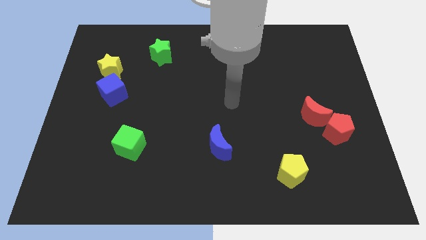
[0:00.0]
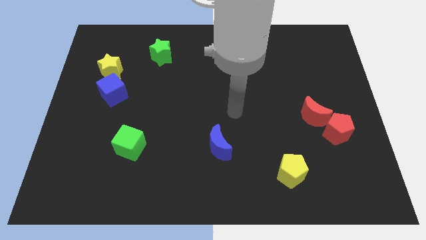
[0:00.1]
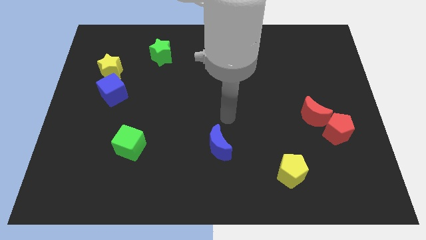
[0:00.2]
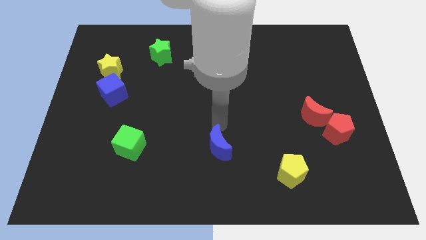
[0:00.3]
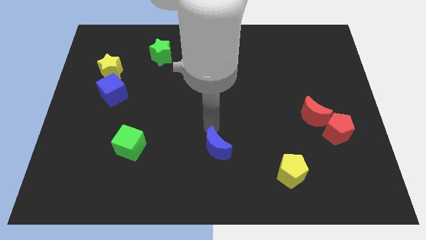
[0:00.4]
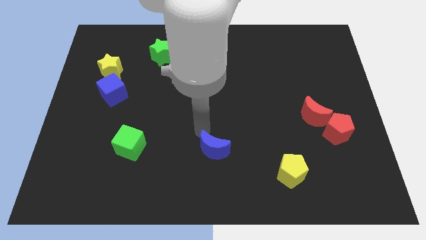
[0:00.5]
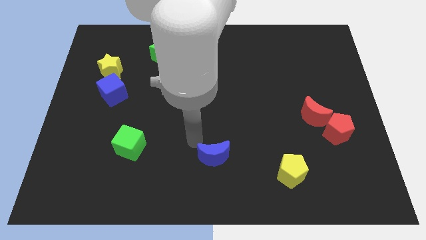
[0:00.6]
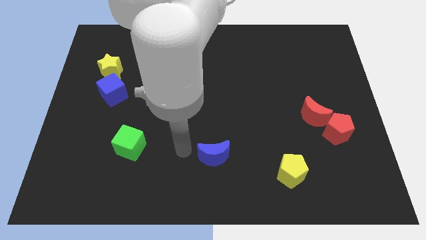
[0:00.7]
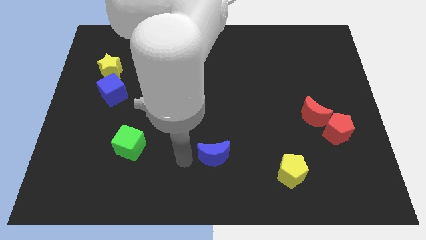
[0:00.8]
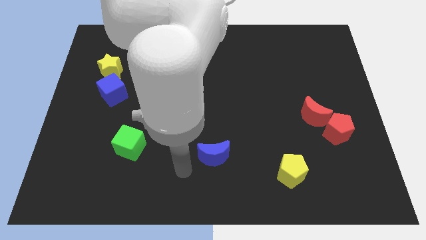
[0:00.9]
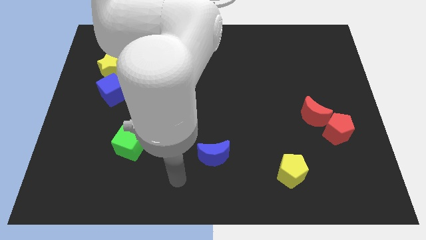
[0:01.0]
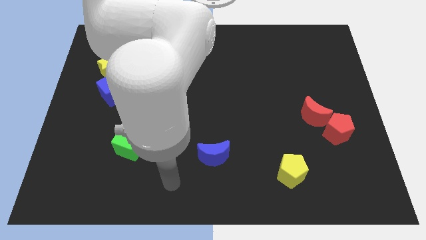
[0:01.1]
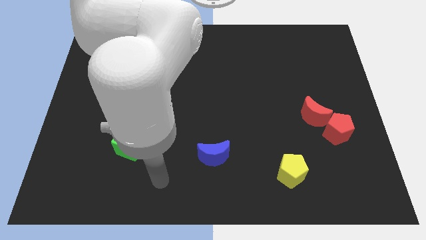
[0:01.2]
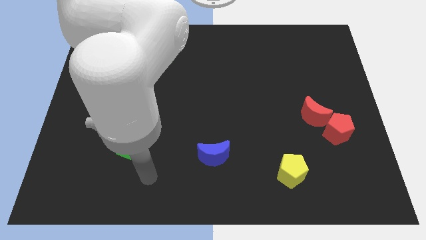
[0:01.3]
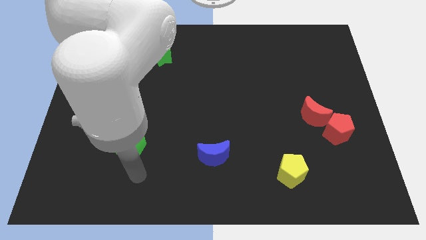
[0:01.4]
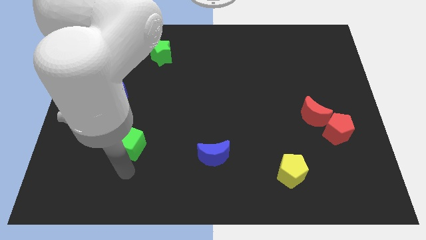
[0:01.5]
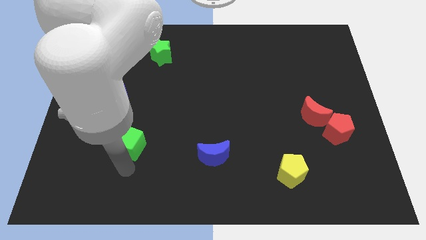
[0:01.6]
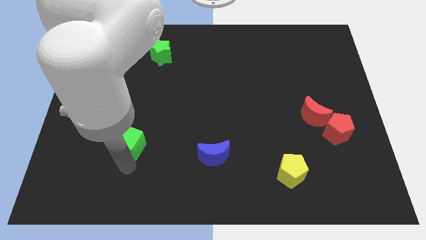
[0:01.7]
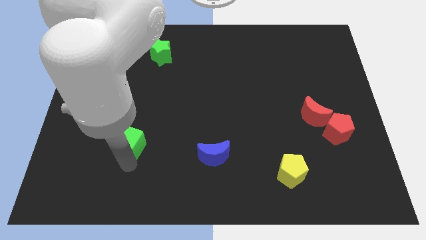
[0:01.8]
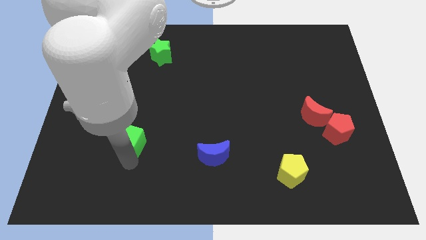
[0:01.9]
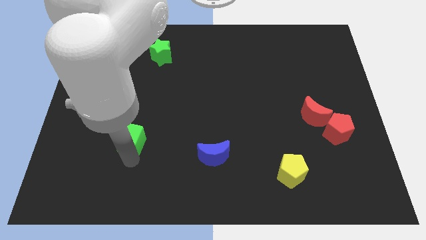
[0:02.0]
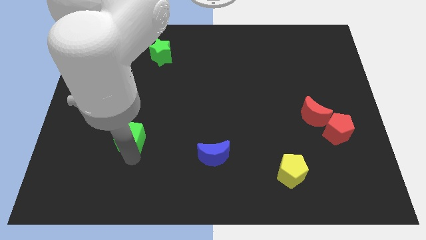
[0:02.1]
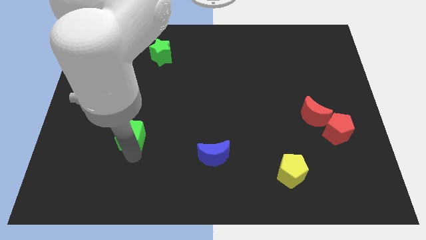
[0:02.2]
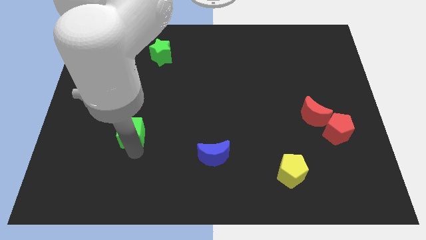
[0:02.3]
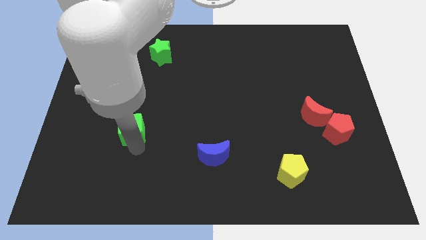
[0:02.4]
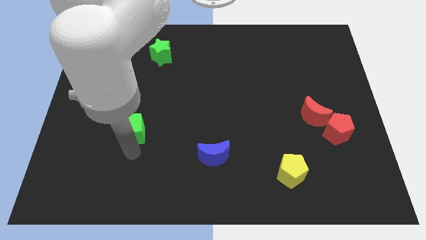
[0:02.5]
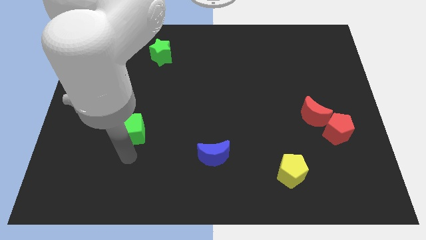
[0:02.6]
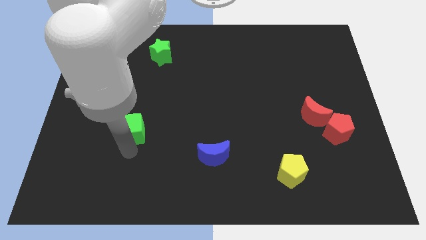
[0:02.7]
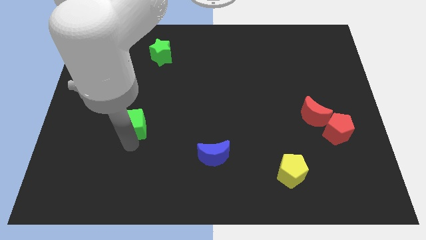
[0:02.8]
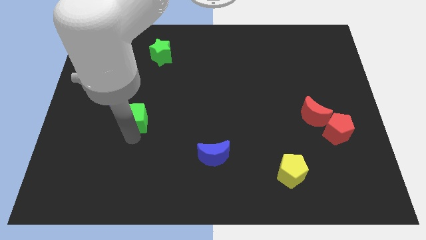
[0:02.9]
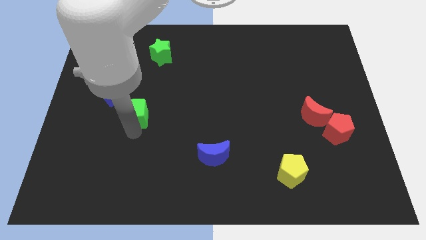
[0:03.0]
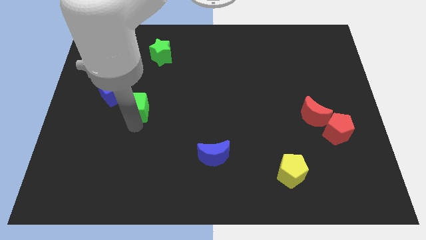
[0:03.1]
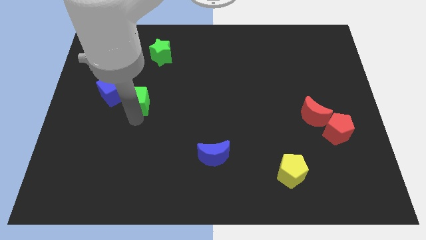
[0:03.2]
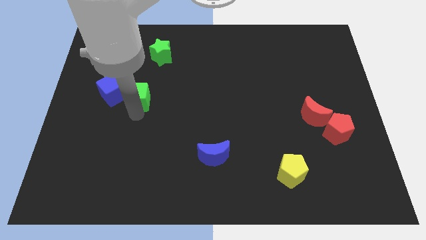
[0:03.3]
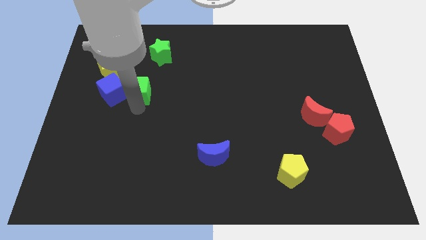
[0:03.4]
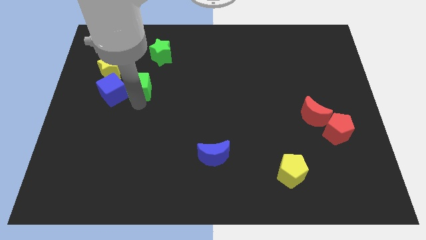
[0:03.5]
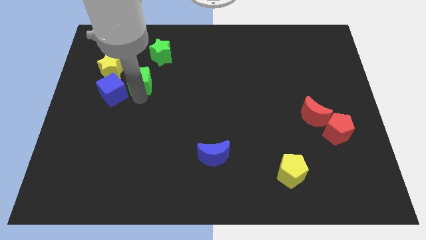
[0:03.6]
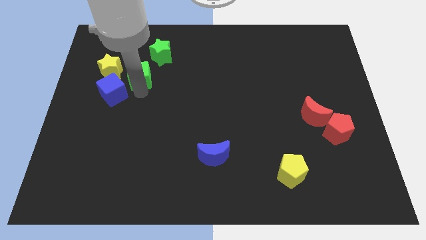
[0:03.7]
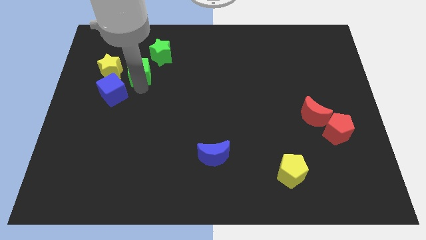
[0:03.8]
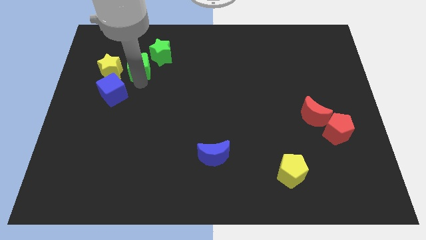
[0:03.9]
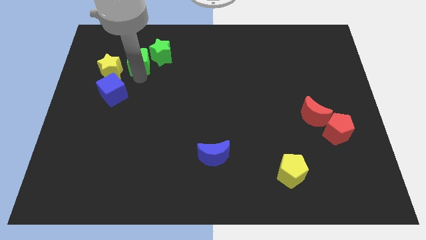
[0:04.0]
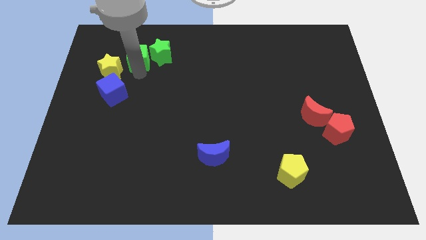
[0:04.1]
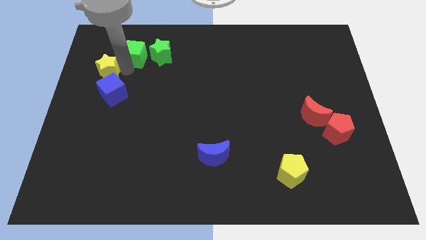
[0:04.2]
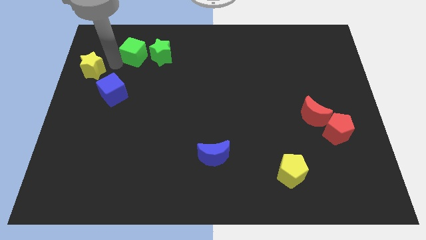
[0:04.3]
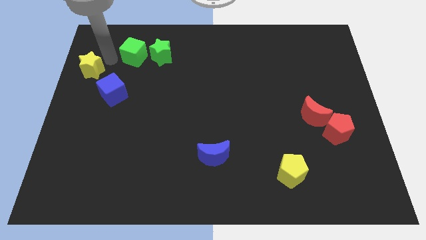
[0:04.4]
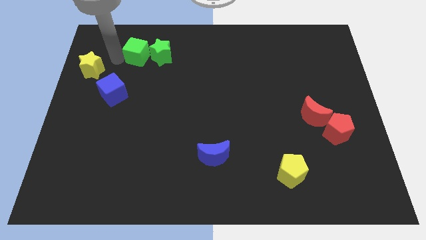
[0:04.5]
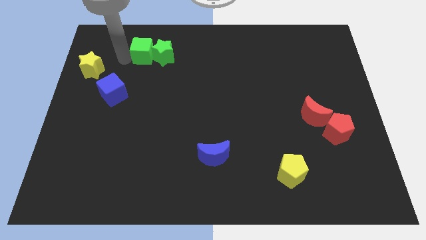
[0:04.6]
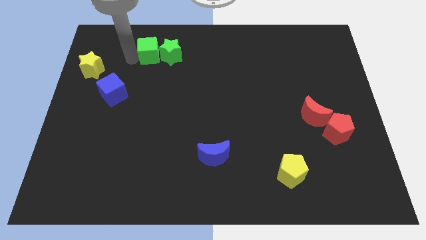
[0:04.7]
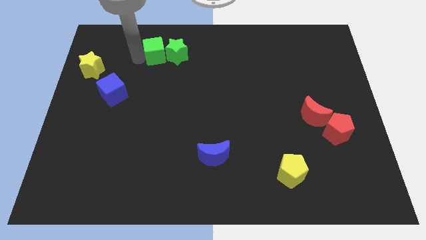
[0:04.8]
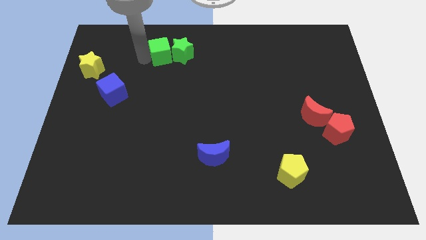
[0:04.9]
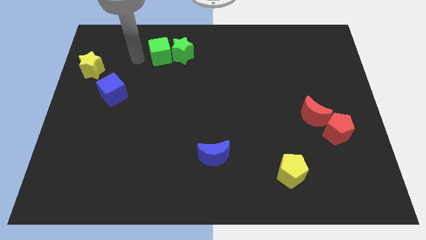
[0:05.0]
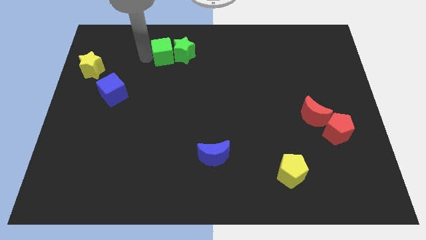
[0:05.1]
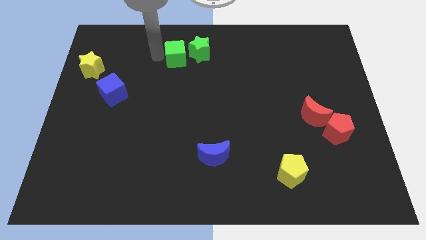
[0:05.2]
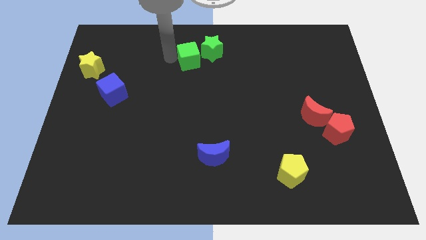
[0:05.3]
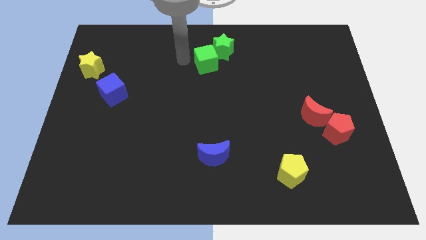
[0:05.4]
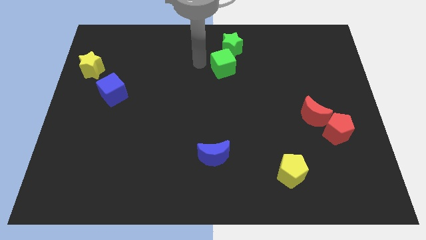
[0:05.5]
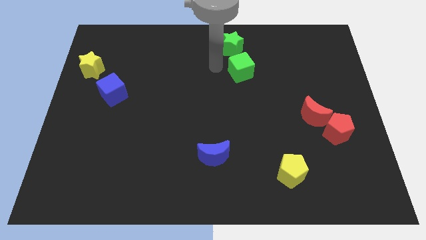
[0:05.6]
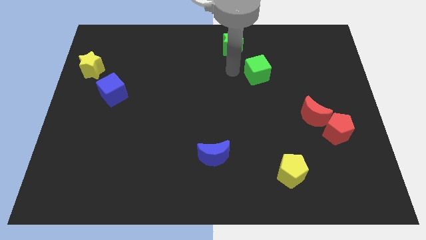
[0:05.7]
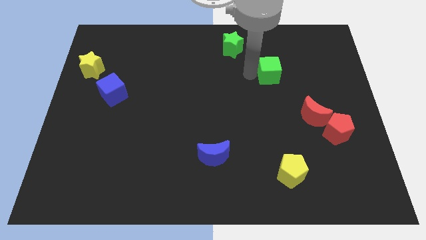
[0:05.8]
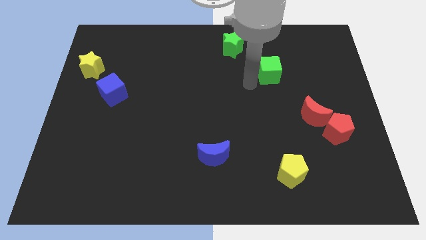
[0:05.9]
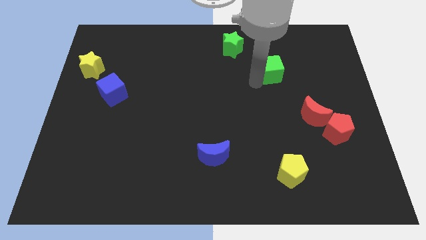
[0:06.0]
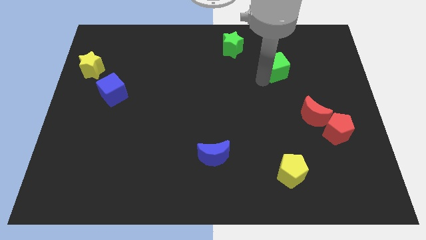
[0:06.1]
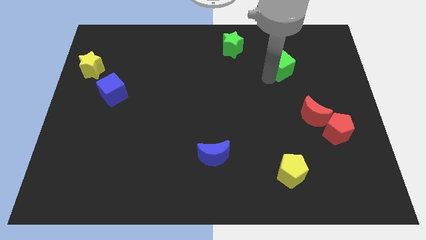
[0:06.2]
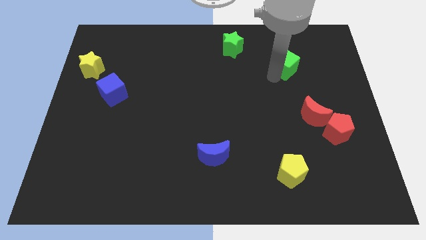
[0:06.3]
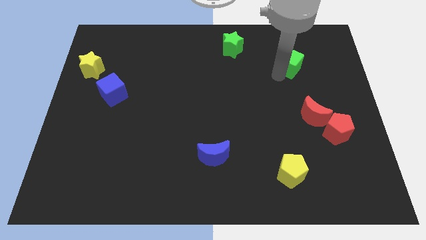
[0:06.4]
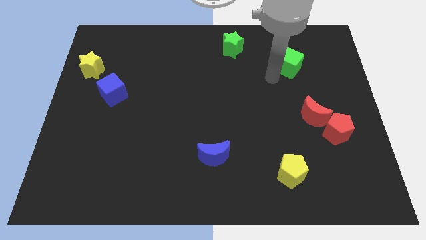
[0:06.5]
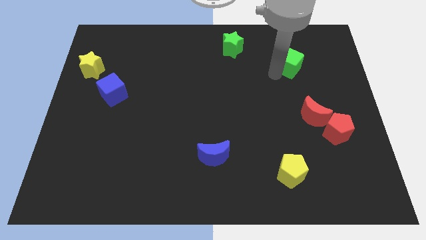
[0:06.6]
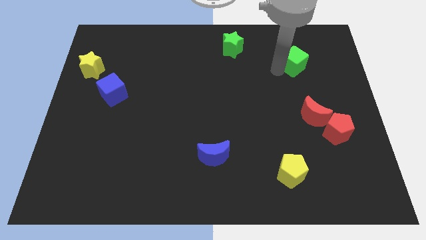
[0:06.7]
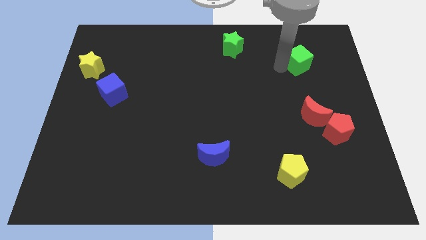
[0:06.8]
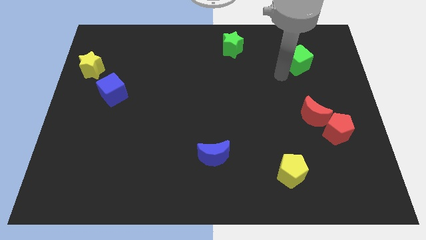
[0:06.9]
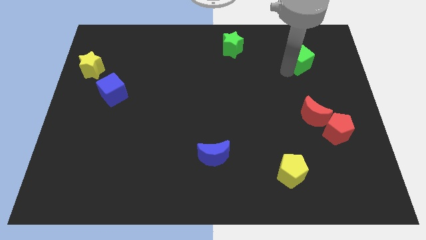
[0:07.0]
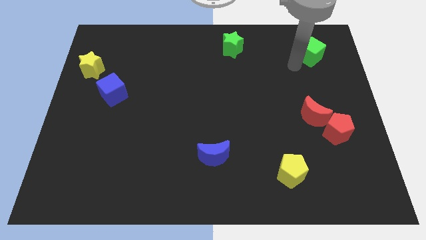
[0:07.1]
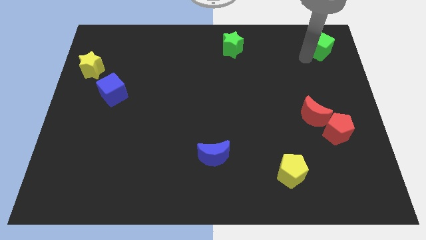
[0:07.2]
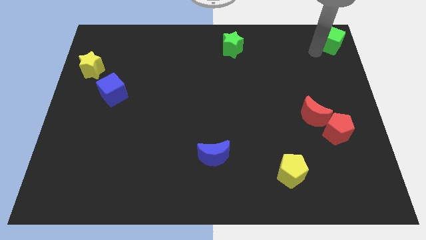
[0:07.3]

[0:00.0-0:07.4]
put the green cube to the top right

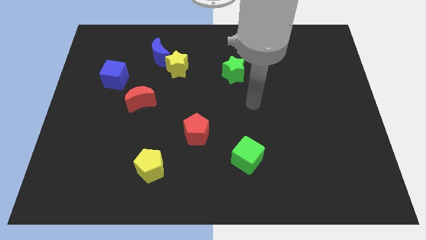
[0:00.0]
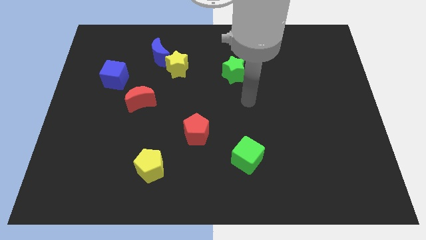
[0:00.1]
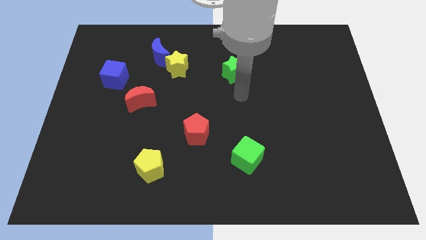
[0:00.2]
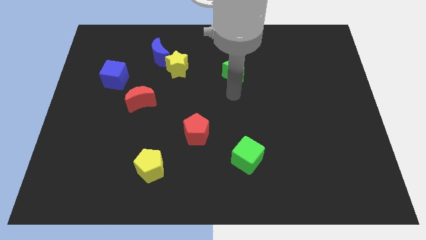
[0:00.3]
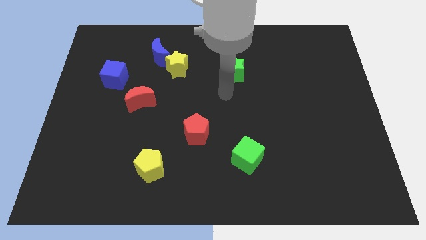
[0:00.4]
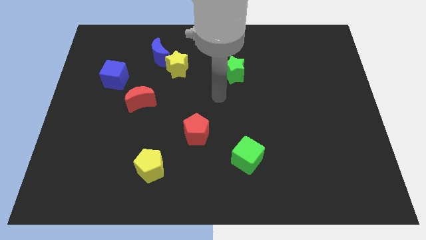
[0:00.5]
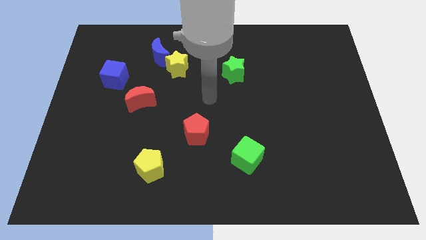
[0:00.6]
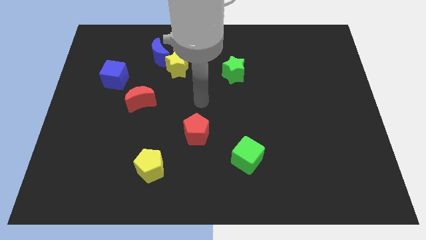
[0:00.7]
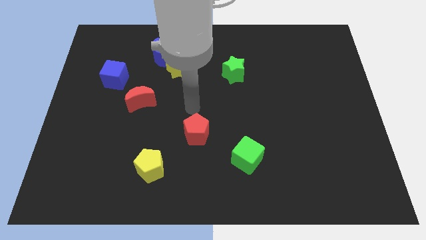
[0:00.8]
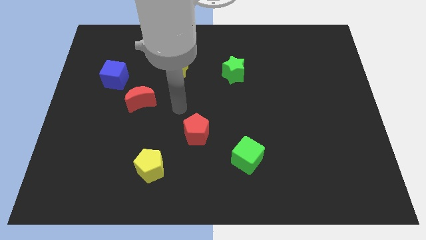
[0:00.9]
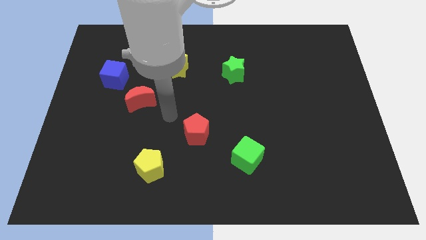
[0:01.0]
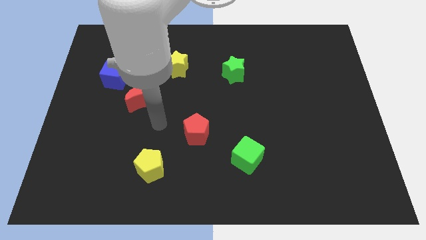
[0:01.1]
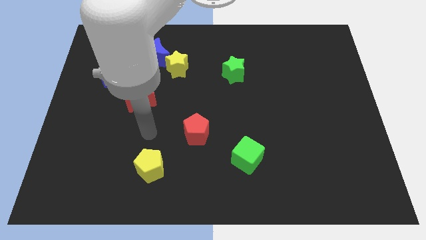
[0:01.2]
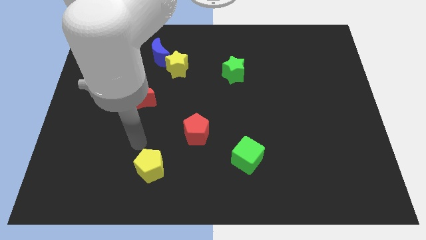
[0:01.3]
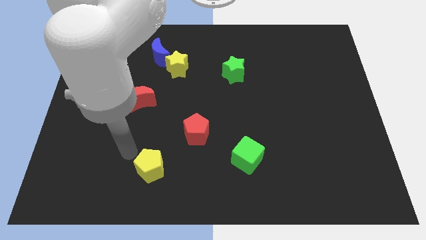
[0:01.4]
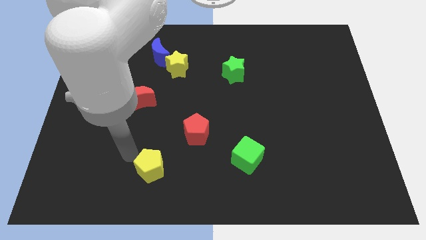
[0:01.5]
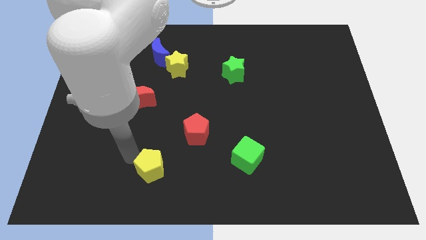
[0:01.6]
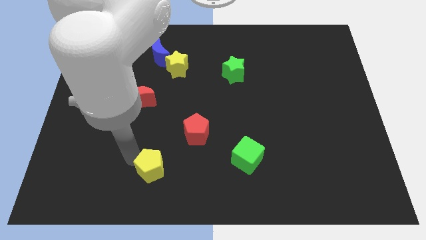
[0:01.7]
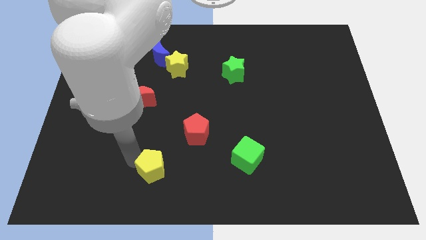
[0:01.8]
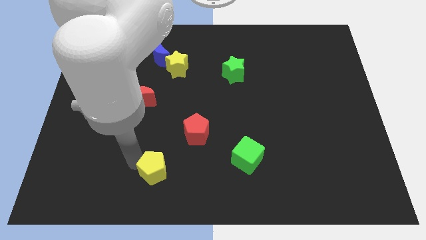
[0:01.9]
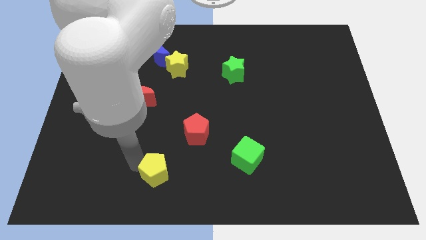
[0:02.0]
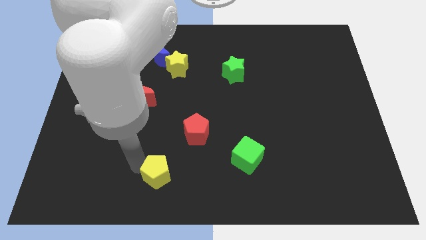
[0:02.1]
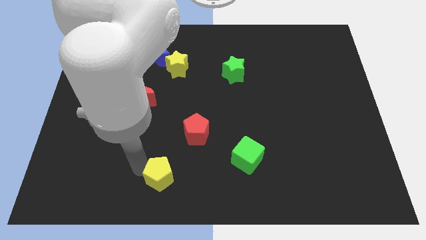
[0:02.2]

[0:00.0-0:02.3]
move the yellow pentagon to the bottom
